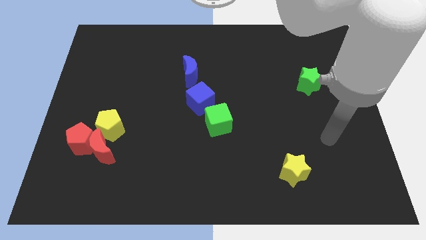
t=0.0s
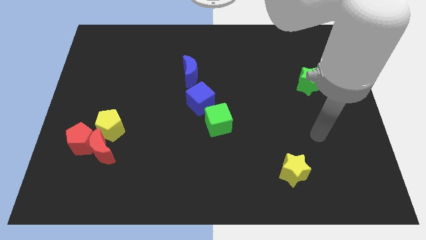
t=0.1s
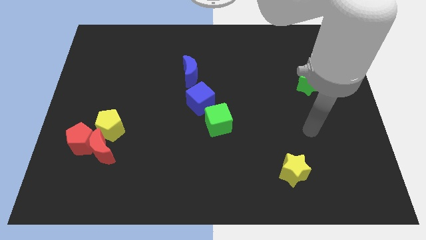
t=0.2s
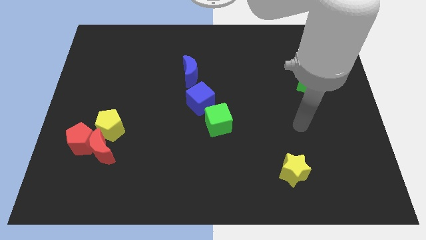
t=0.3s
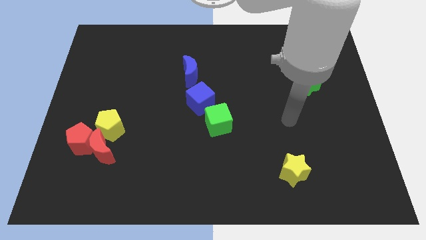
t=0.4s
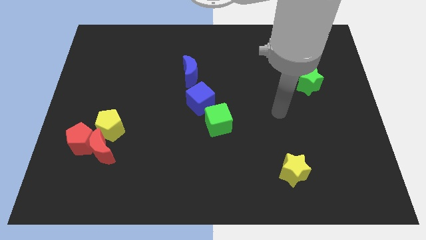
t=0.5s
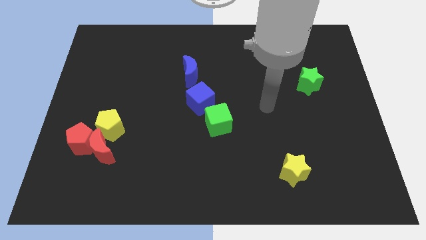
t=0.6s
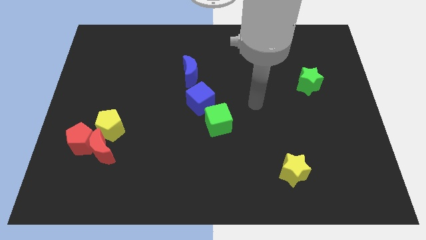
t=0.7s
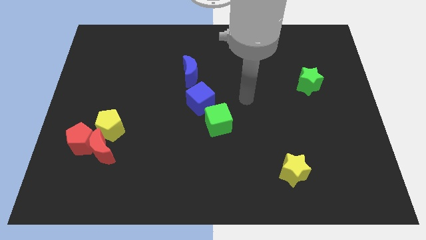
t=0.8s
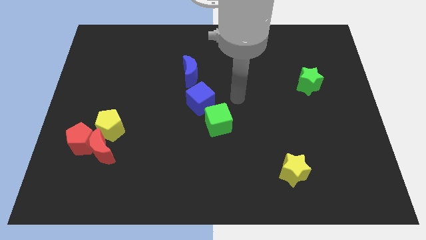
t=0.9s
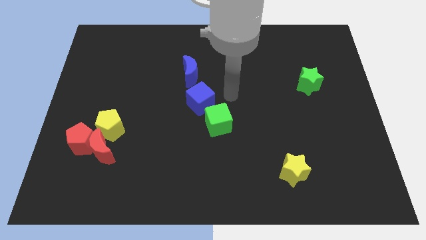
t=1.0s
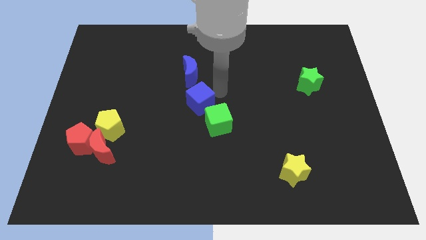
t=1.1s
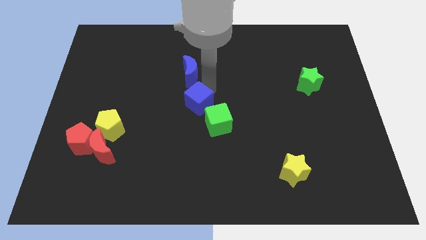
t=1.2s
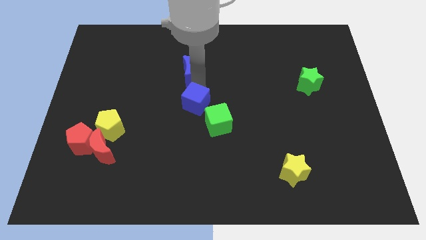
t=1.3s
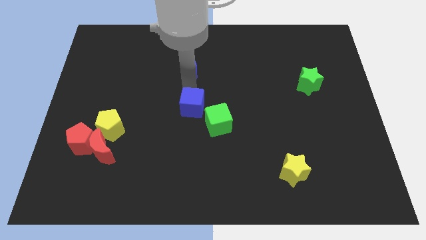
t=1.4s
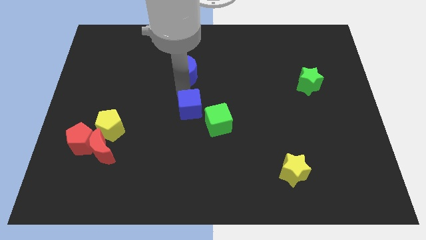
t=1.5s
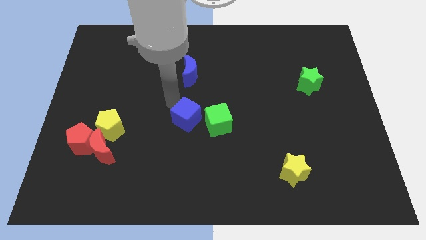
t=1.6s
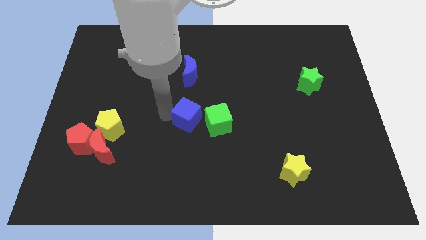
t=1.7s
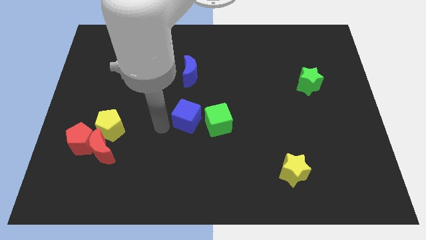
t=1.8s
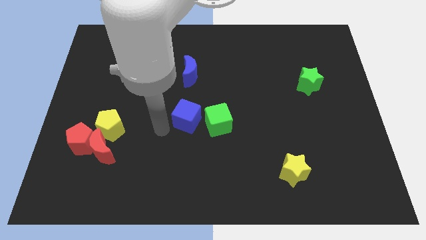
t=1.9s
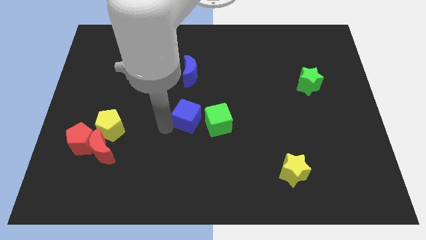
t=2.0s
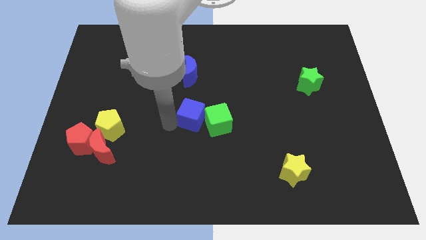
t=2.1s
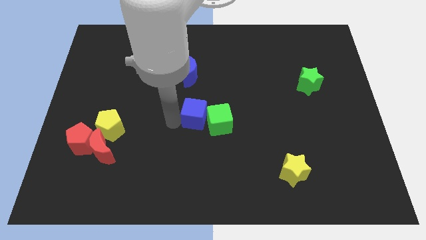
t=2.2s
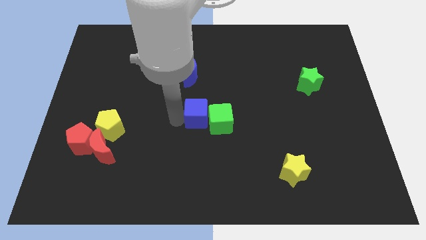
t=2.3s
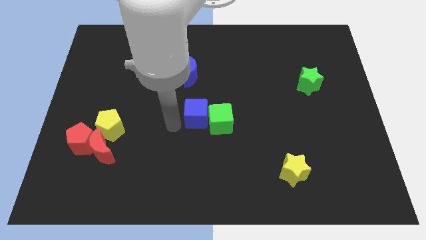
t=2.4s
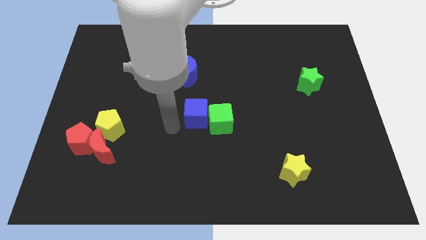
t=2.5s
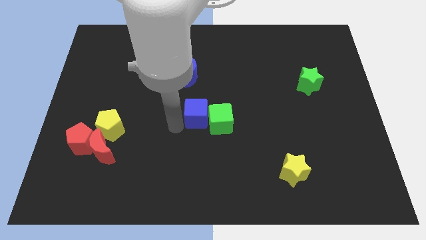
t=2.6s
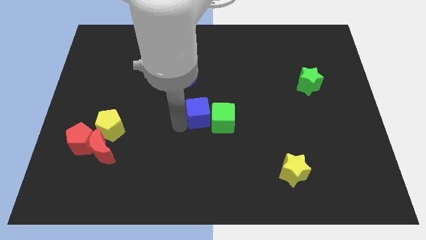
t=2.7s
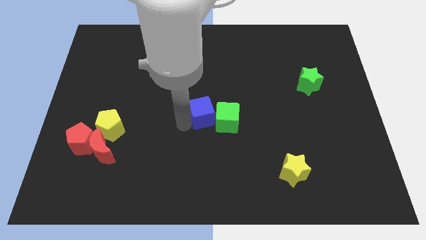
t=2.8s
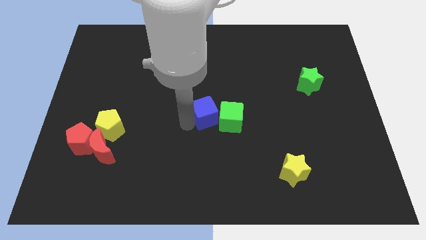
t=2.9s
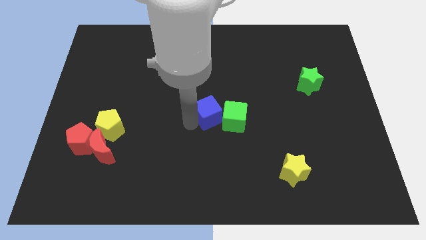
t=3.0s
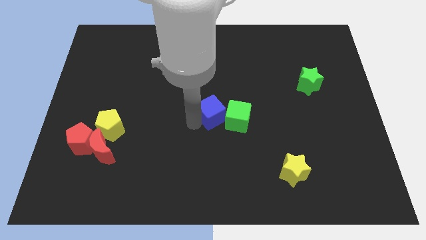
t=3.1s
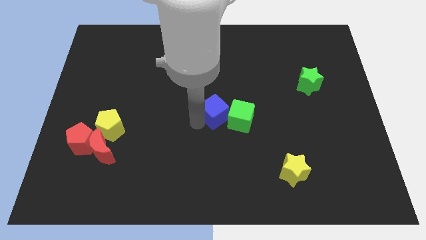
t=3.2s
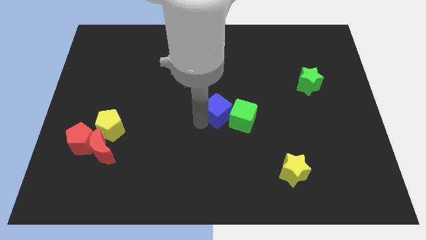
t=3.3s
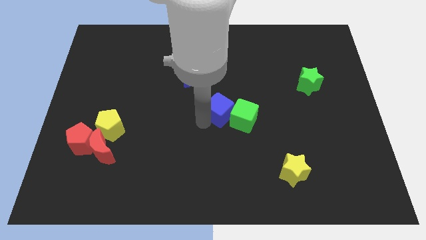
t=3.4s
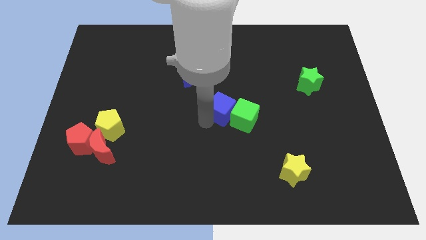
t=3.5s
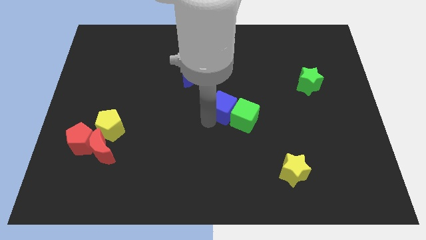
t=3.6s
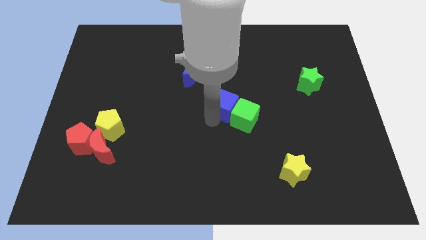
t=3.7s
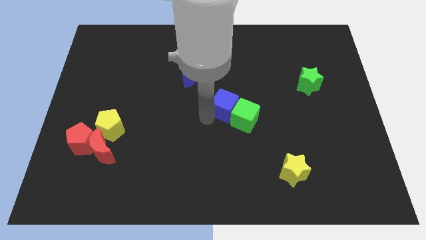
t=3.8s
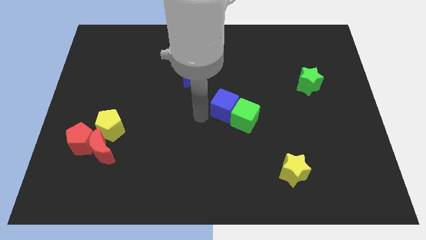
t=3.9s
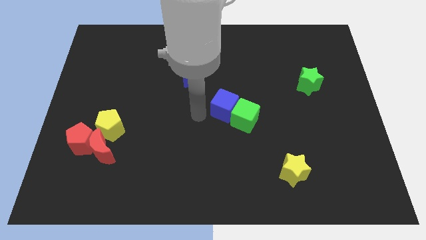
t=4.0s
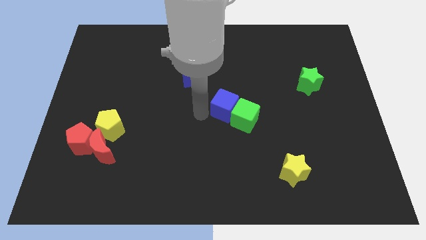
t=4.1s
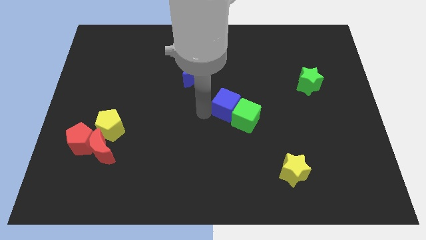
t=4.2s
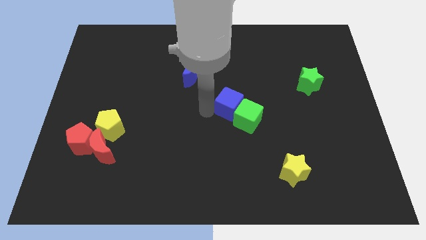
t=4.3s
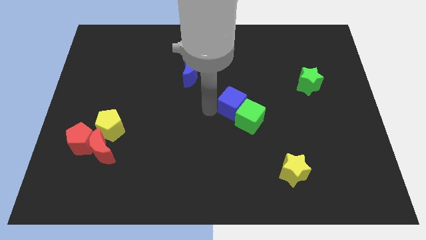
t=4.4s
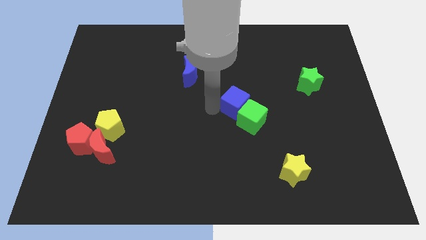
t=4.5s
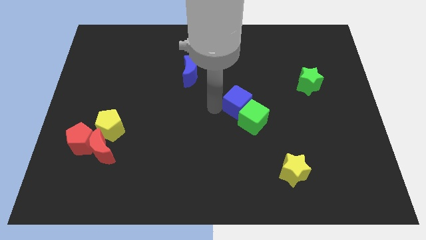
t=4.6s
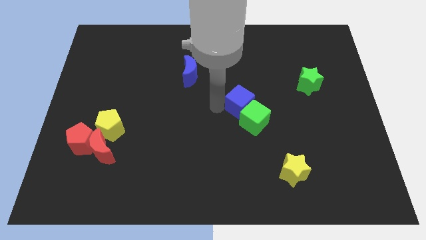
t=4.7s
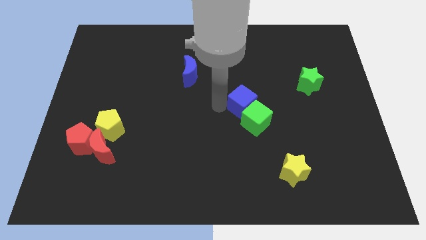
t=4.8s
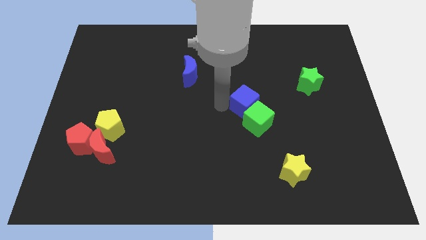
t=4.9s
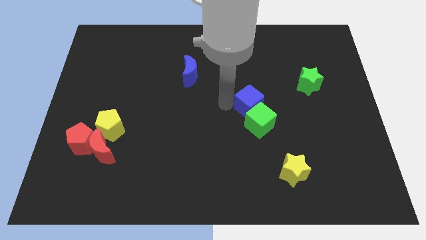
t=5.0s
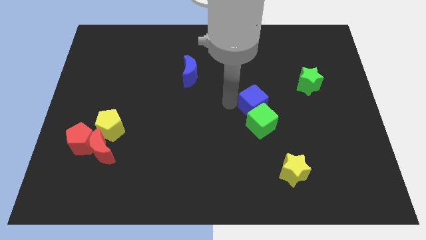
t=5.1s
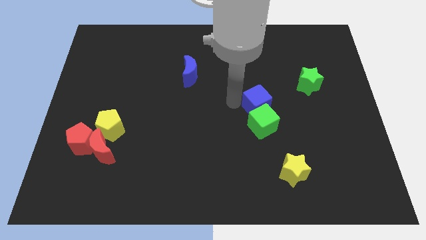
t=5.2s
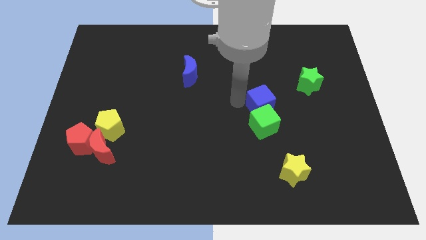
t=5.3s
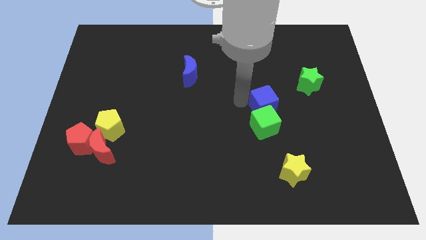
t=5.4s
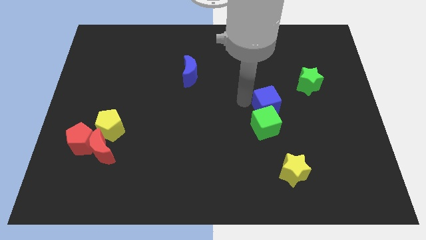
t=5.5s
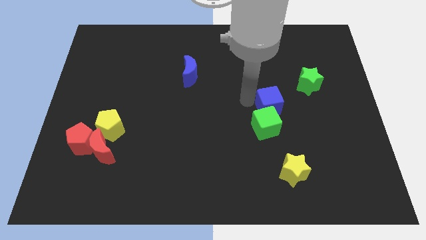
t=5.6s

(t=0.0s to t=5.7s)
put the blue cube diagonally down and to the left of the green star

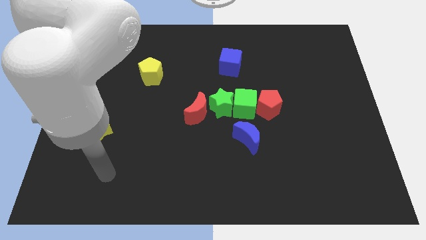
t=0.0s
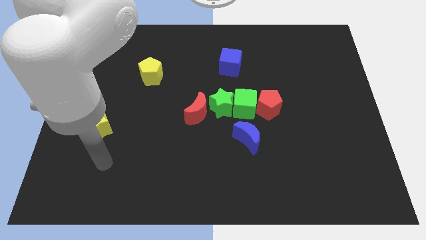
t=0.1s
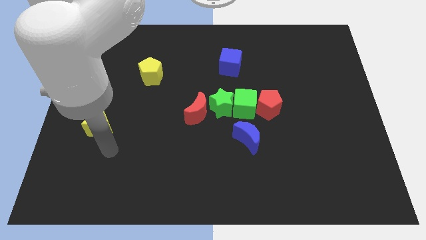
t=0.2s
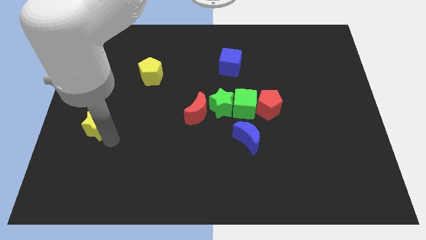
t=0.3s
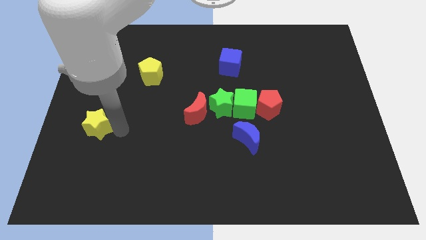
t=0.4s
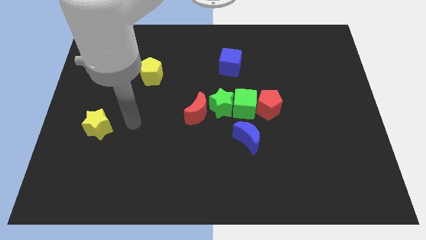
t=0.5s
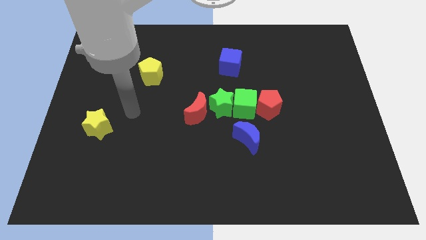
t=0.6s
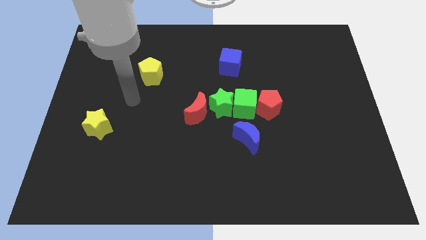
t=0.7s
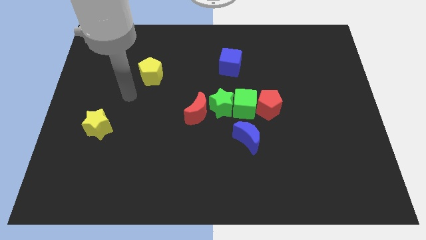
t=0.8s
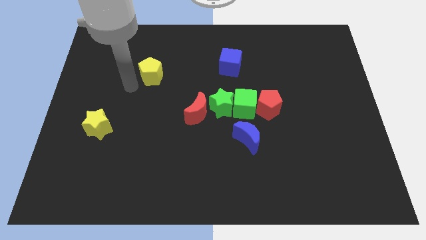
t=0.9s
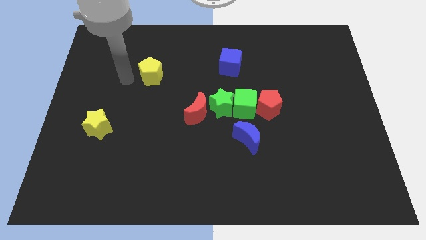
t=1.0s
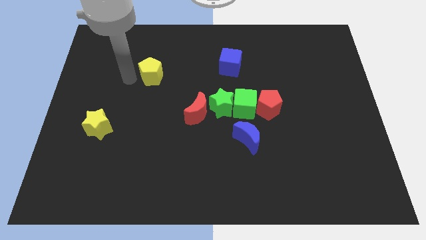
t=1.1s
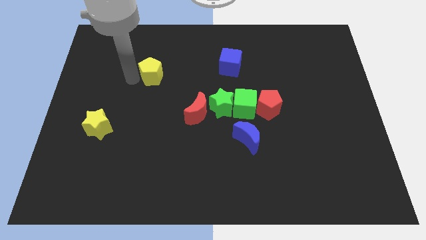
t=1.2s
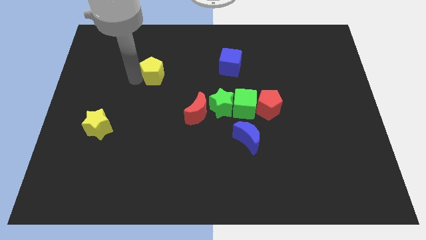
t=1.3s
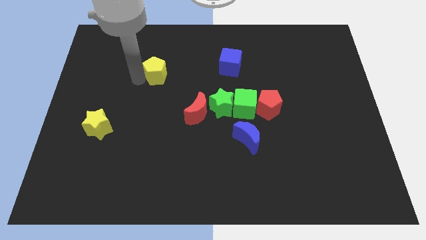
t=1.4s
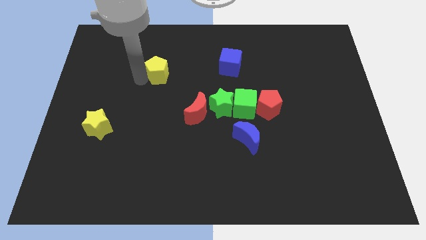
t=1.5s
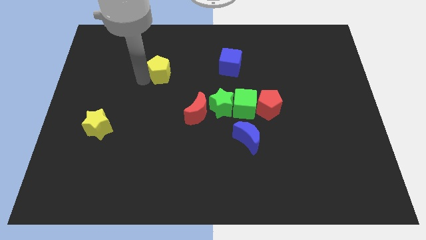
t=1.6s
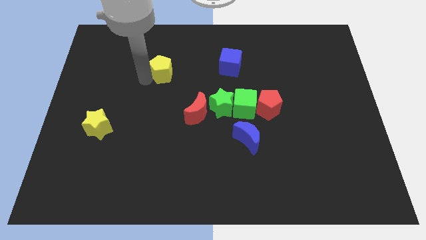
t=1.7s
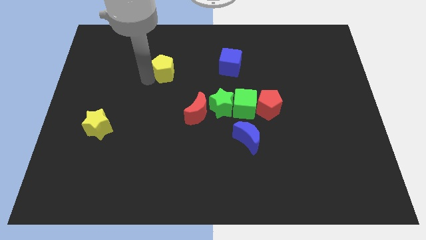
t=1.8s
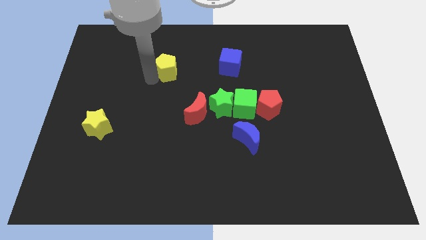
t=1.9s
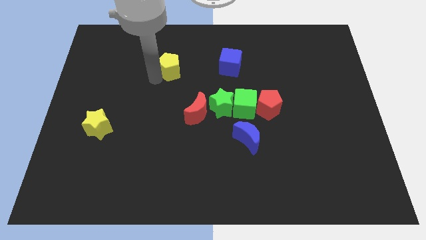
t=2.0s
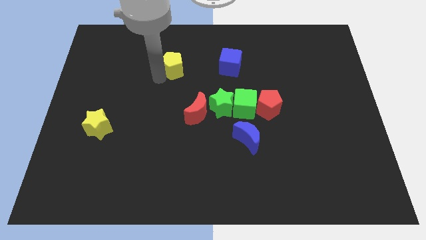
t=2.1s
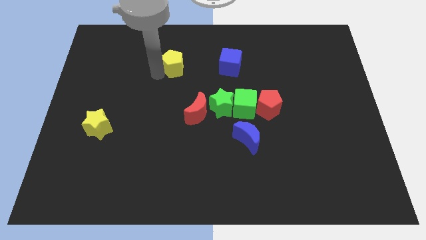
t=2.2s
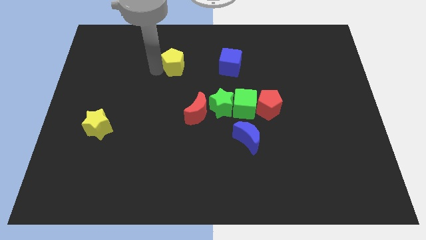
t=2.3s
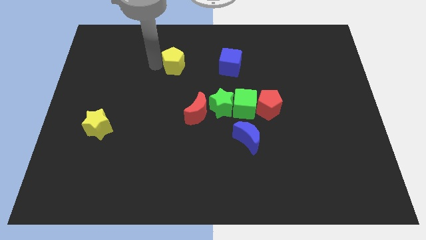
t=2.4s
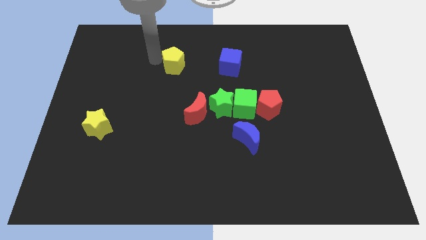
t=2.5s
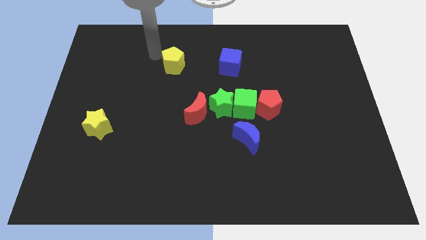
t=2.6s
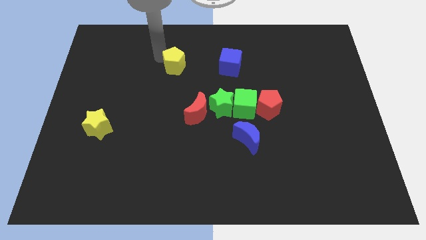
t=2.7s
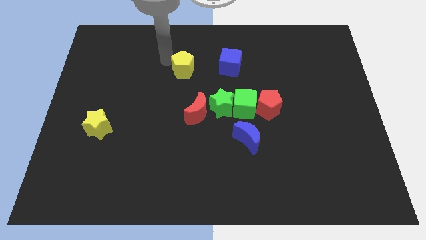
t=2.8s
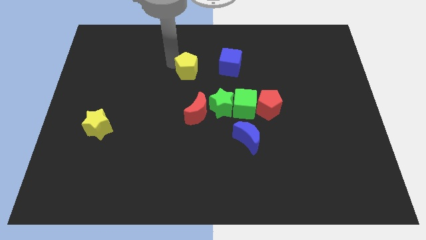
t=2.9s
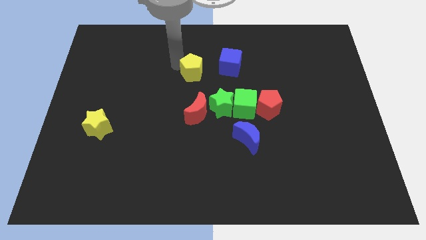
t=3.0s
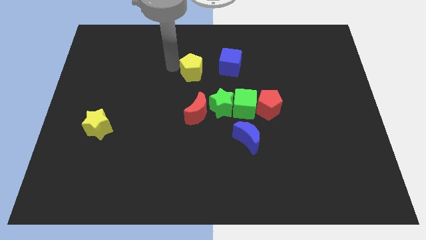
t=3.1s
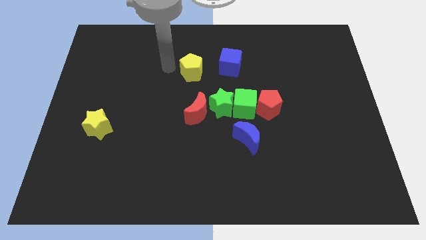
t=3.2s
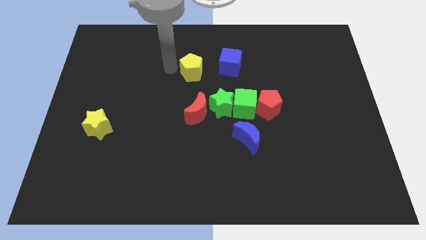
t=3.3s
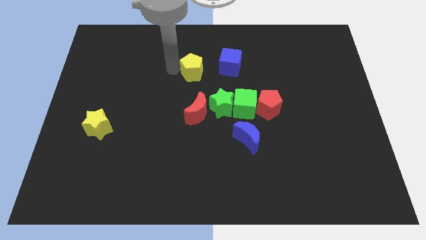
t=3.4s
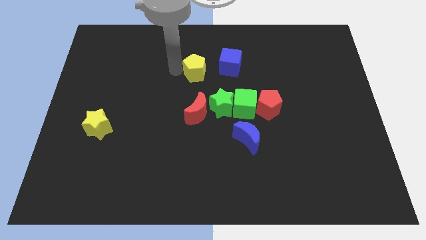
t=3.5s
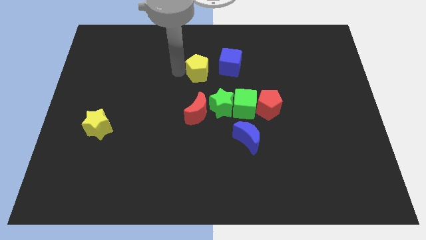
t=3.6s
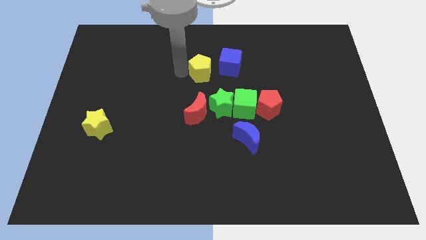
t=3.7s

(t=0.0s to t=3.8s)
push the yellow pentagon to the top side of the green star
